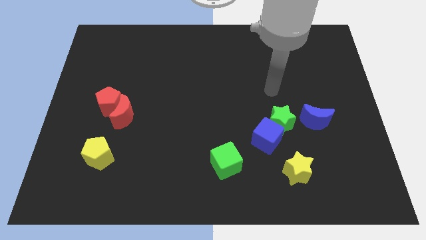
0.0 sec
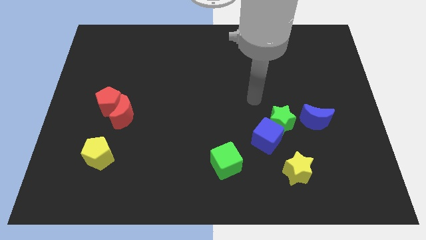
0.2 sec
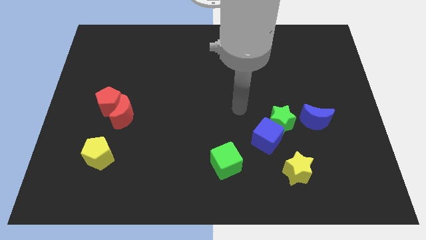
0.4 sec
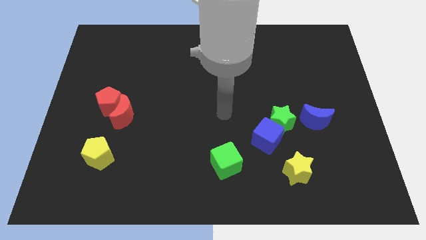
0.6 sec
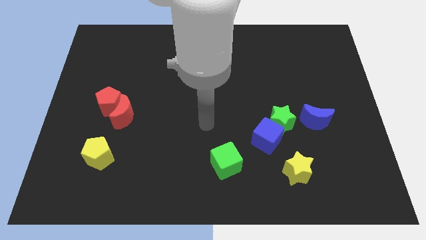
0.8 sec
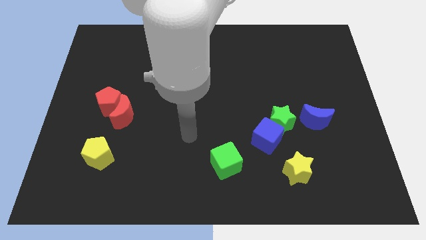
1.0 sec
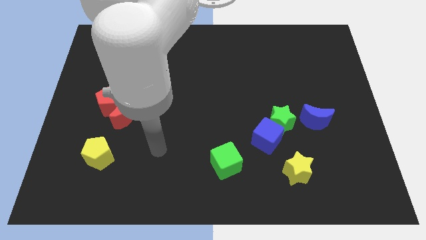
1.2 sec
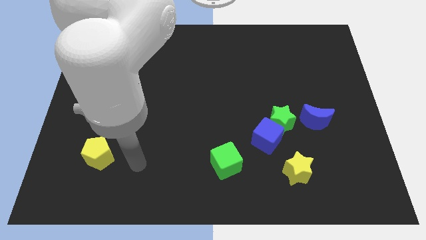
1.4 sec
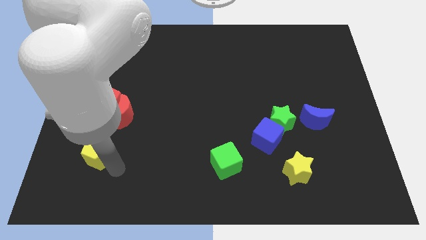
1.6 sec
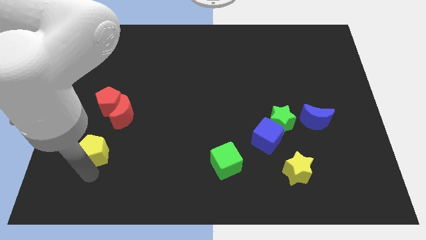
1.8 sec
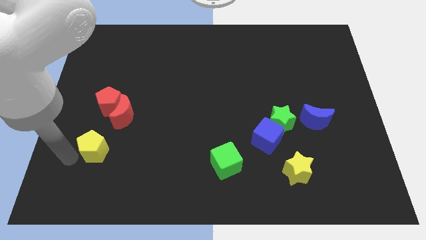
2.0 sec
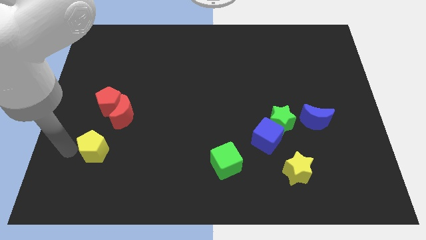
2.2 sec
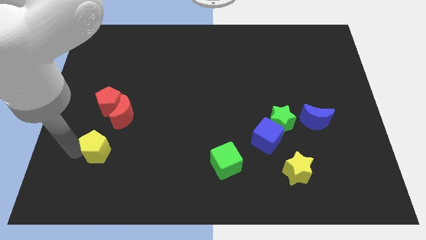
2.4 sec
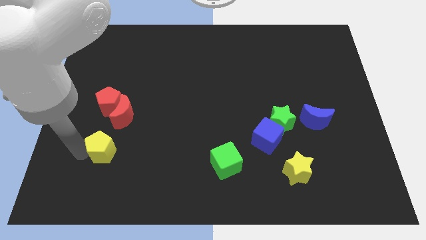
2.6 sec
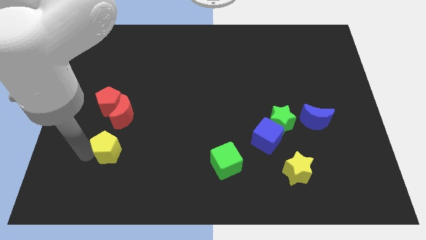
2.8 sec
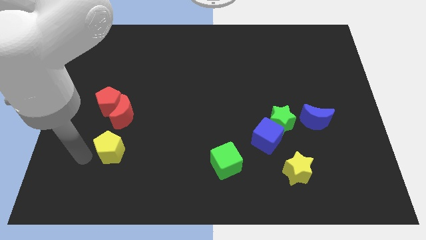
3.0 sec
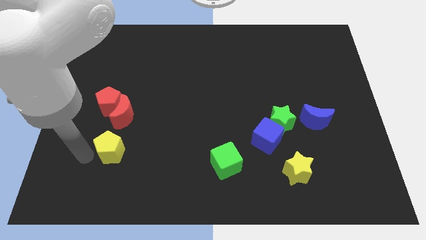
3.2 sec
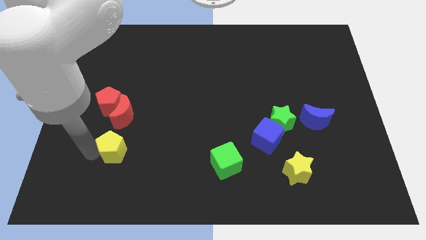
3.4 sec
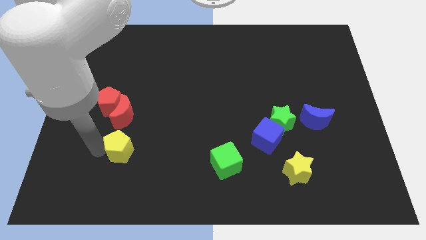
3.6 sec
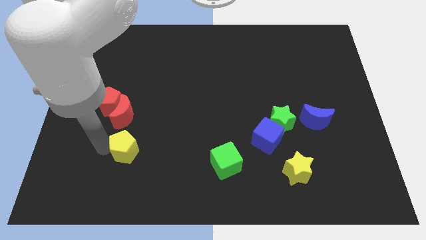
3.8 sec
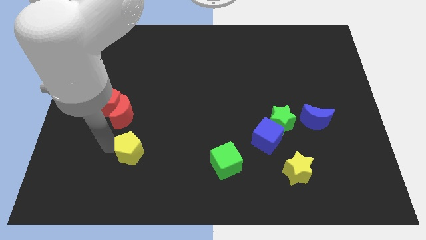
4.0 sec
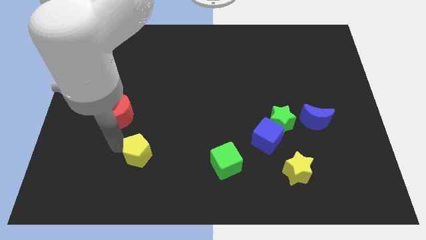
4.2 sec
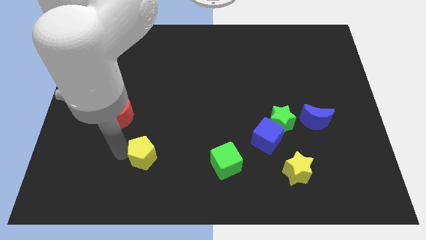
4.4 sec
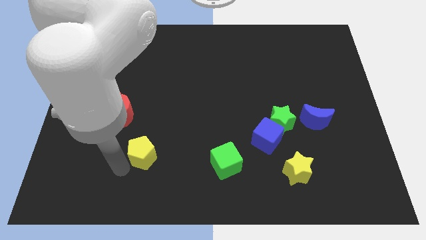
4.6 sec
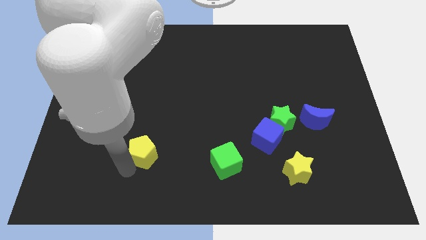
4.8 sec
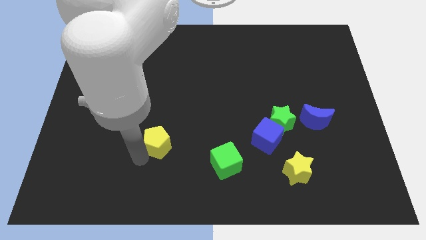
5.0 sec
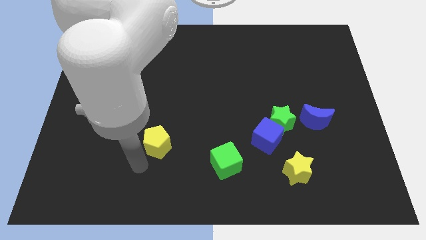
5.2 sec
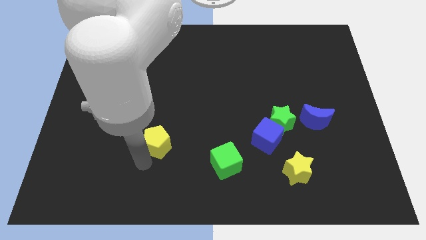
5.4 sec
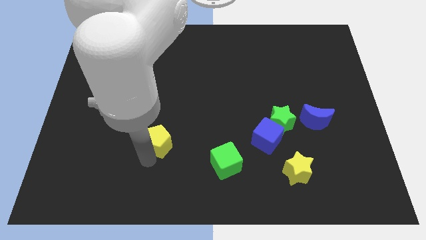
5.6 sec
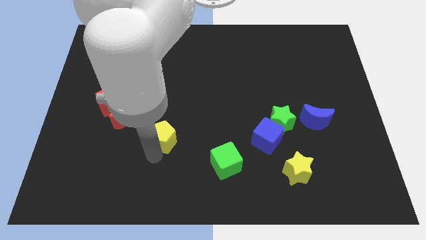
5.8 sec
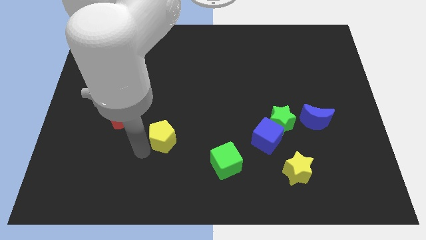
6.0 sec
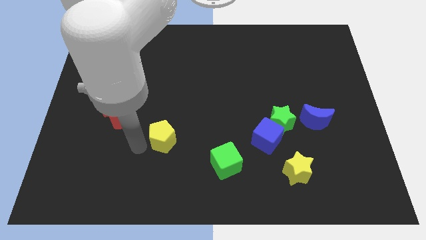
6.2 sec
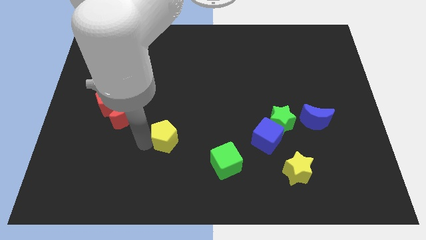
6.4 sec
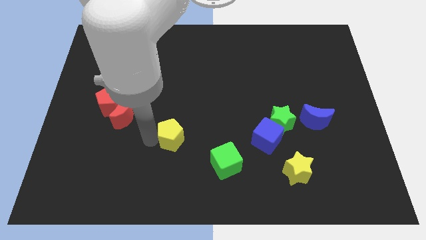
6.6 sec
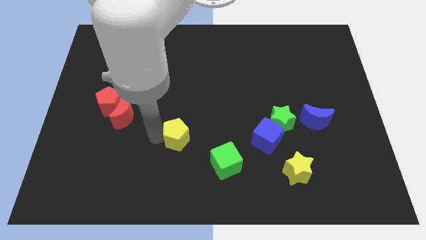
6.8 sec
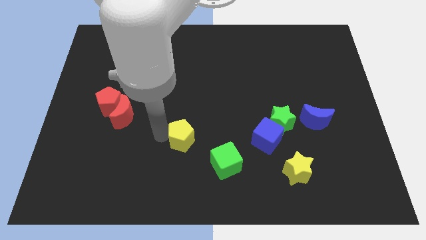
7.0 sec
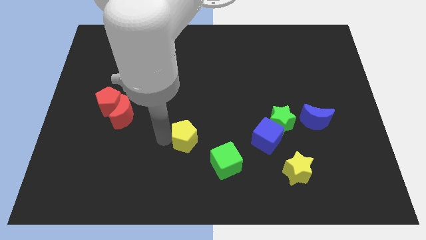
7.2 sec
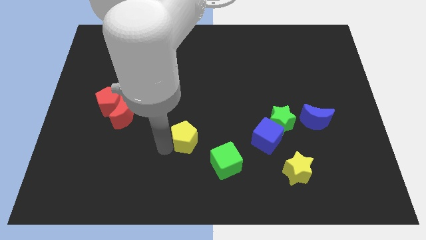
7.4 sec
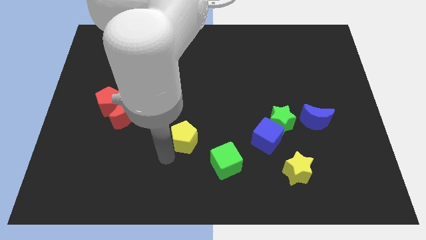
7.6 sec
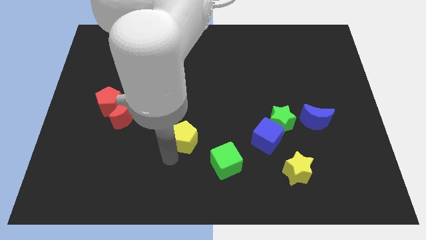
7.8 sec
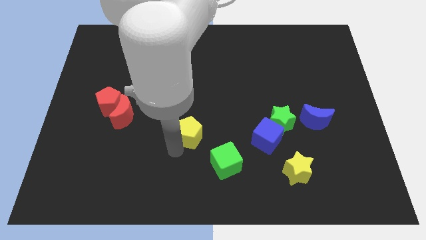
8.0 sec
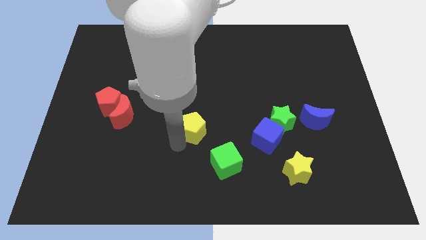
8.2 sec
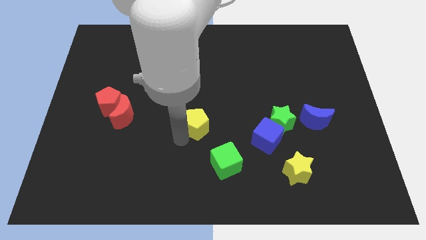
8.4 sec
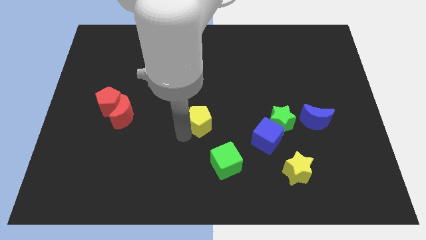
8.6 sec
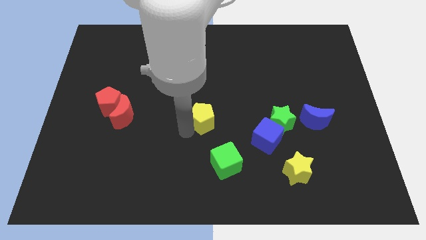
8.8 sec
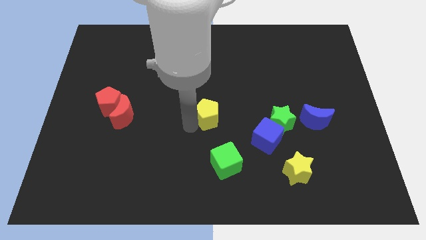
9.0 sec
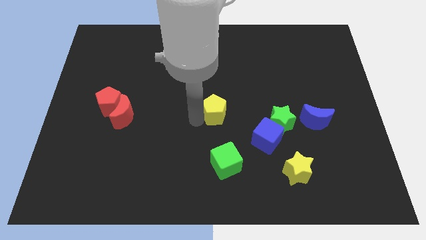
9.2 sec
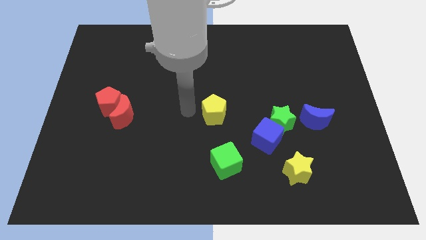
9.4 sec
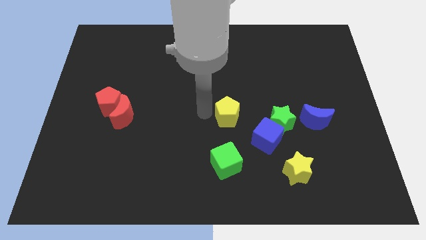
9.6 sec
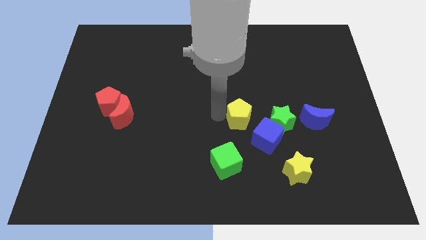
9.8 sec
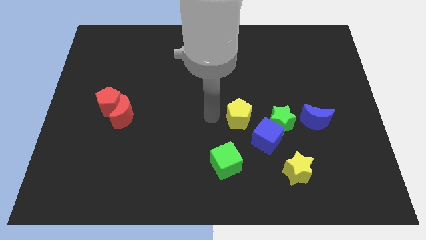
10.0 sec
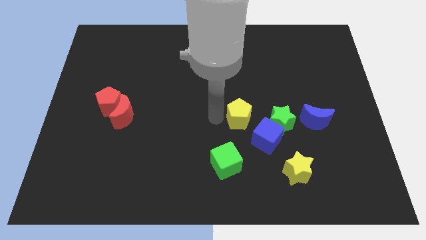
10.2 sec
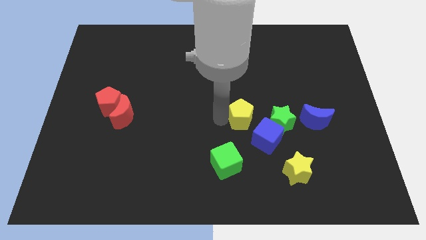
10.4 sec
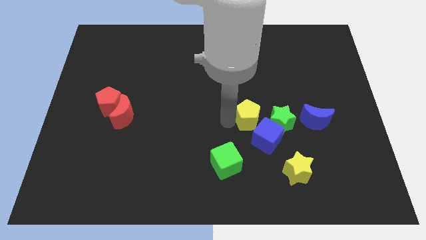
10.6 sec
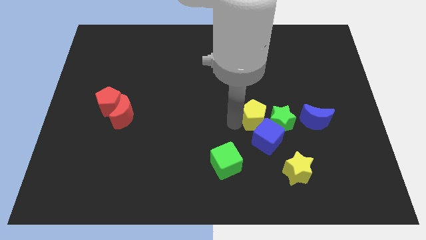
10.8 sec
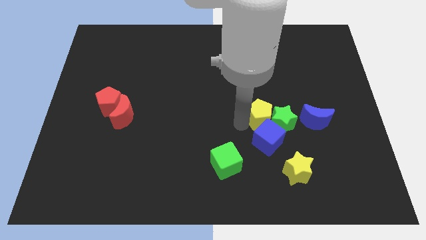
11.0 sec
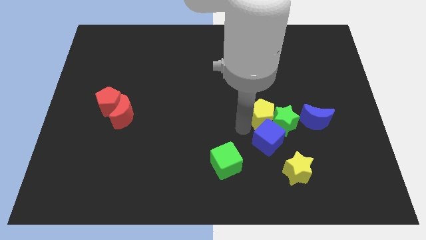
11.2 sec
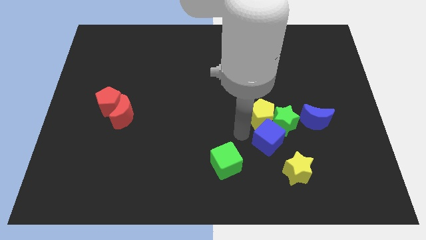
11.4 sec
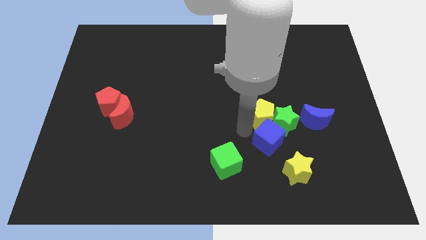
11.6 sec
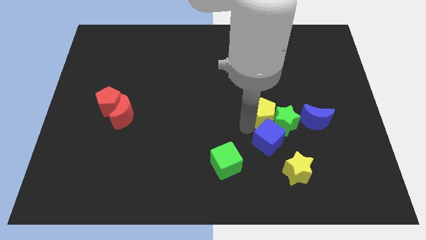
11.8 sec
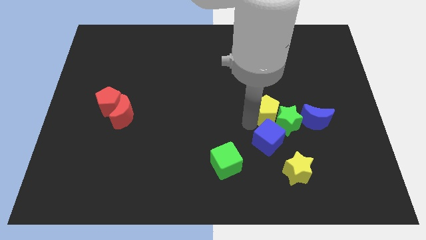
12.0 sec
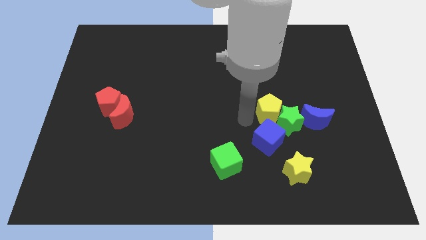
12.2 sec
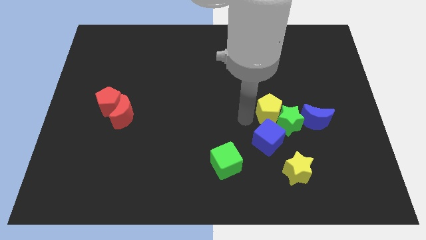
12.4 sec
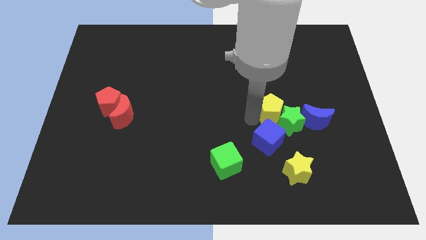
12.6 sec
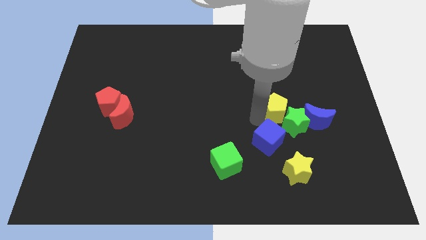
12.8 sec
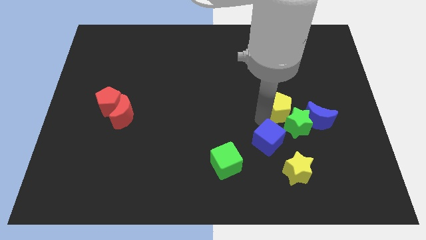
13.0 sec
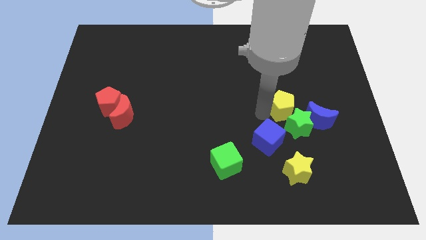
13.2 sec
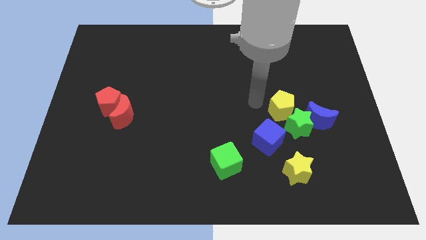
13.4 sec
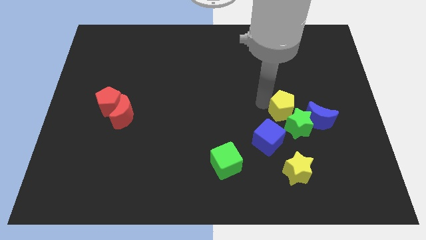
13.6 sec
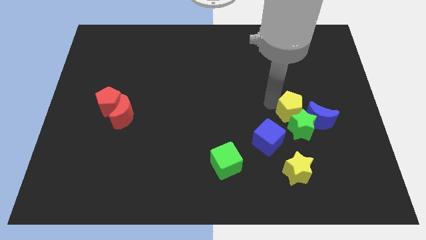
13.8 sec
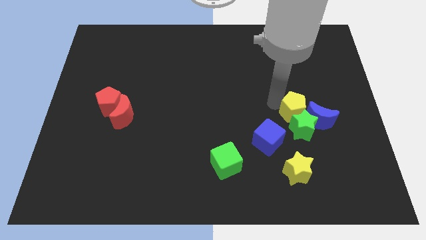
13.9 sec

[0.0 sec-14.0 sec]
move the yellow pentagon towards the blue moon

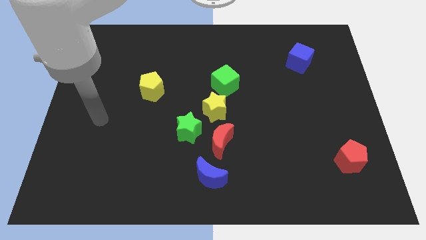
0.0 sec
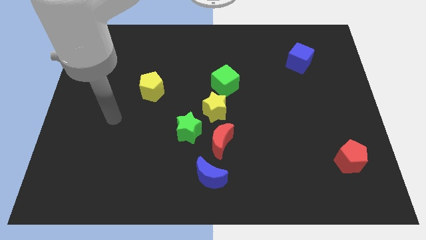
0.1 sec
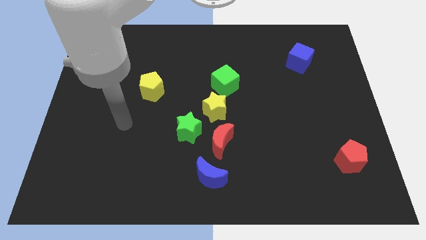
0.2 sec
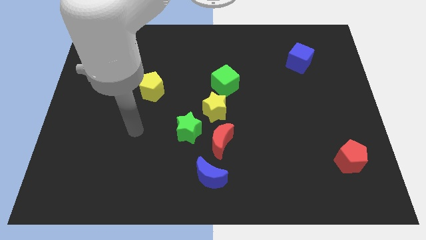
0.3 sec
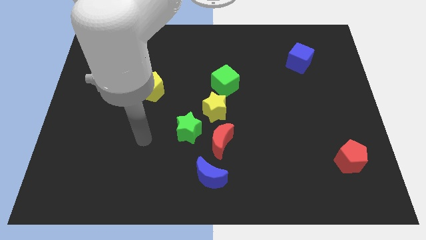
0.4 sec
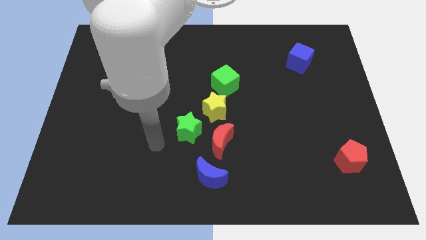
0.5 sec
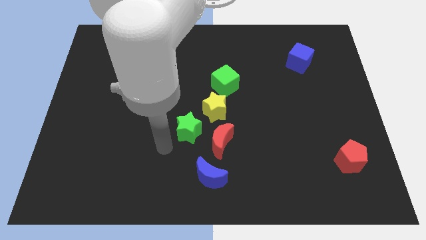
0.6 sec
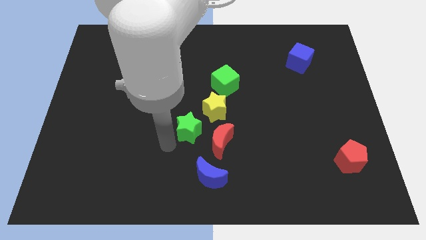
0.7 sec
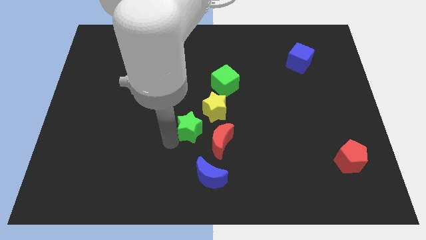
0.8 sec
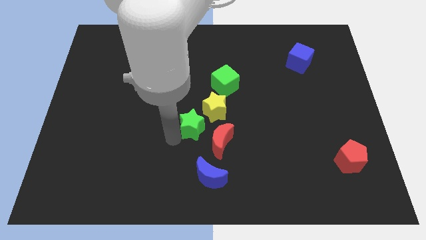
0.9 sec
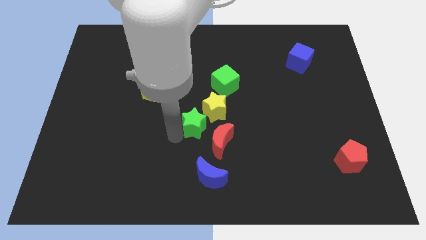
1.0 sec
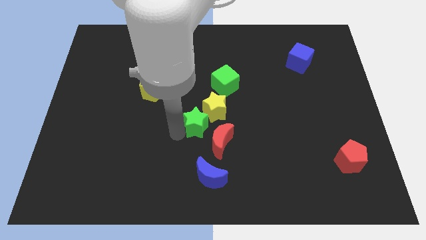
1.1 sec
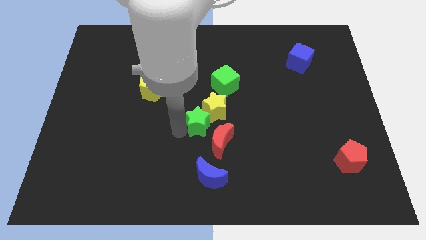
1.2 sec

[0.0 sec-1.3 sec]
push the green star close to the yellow star
